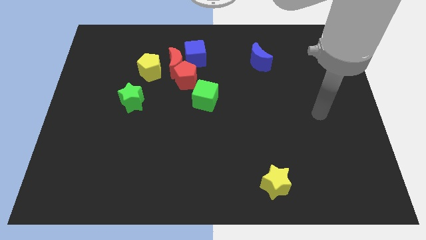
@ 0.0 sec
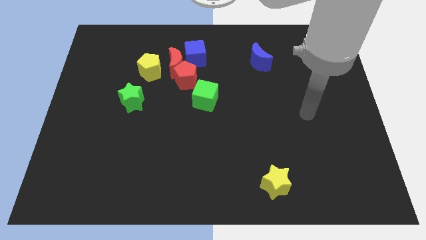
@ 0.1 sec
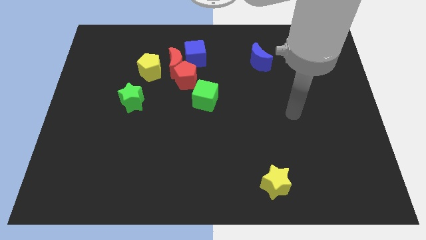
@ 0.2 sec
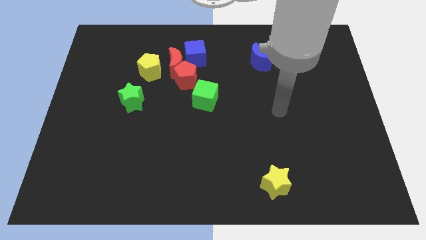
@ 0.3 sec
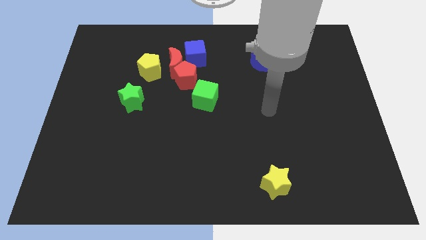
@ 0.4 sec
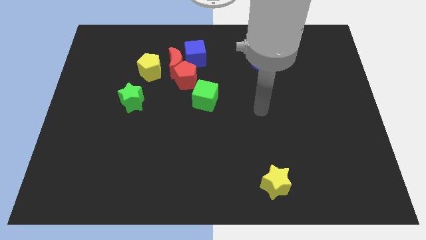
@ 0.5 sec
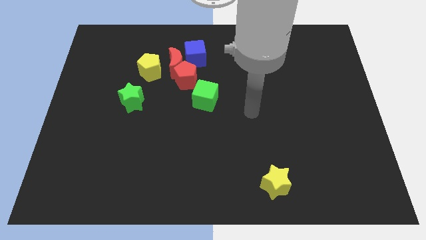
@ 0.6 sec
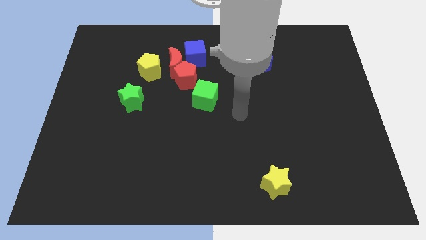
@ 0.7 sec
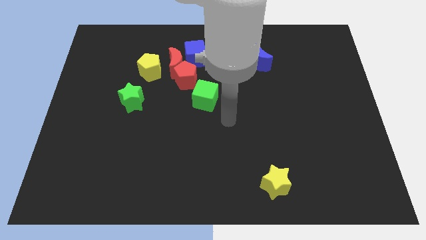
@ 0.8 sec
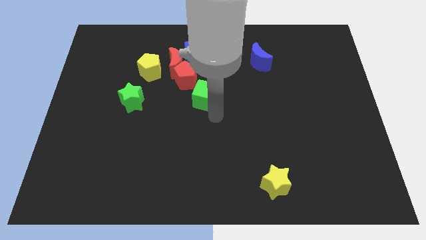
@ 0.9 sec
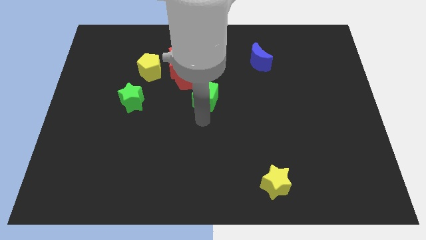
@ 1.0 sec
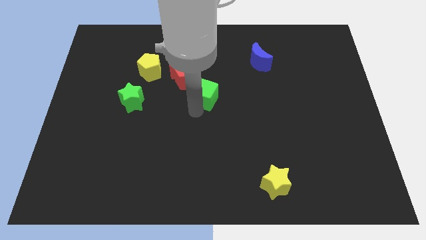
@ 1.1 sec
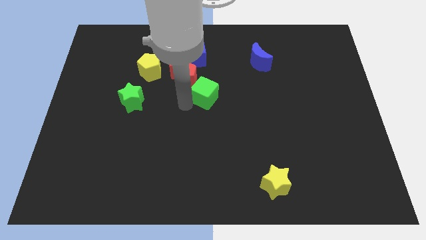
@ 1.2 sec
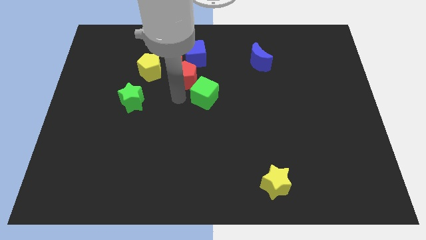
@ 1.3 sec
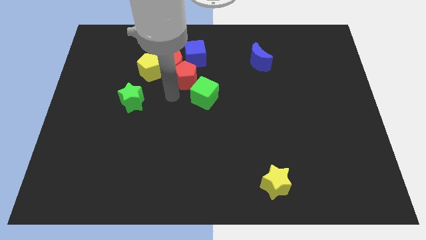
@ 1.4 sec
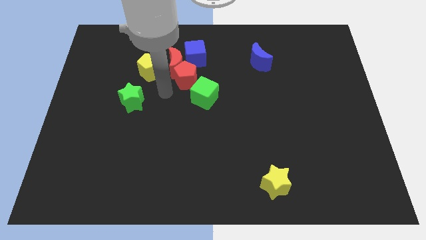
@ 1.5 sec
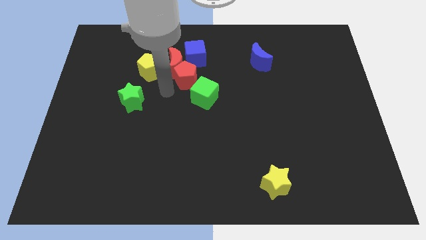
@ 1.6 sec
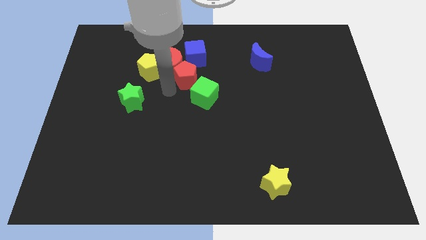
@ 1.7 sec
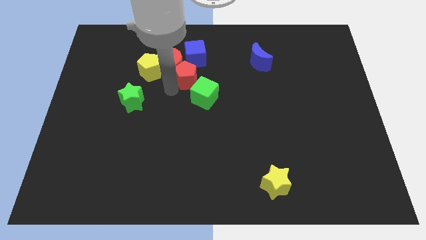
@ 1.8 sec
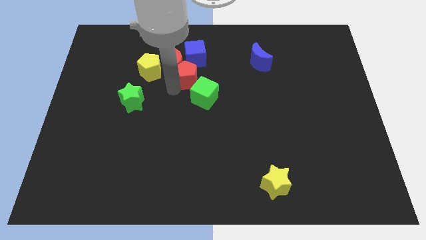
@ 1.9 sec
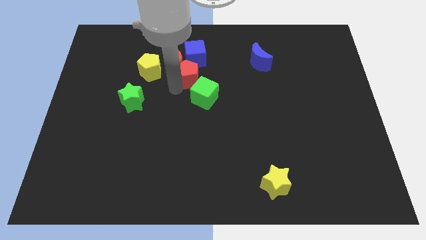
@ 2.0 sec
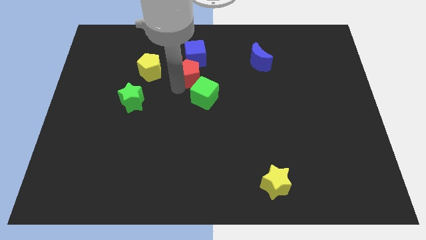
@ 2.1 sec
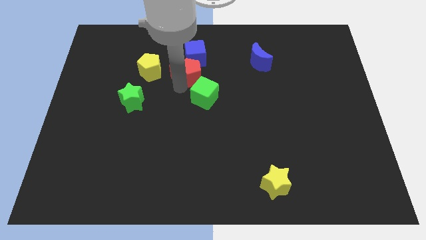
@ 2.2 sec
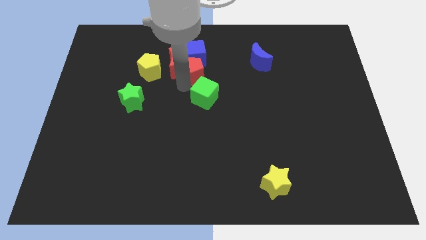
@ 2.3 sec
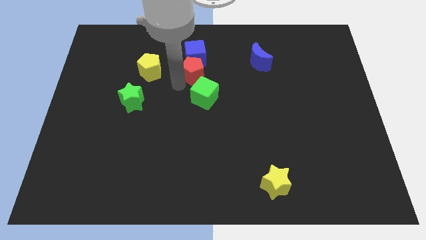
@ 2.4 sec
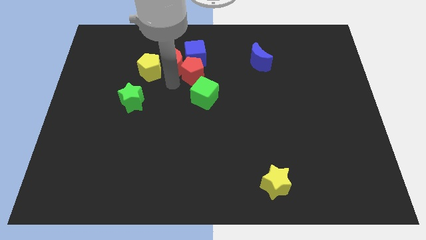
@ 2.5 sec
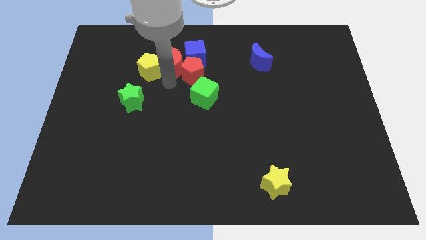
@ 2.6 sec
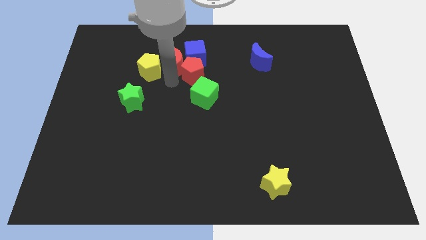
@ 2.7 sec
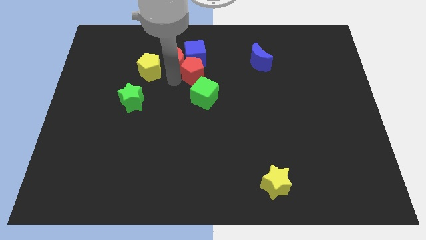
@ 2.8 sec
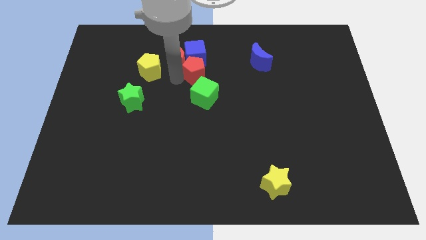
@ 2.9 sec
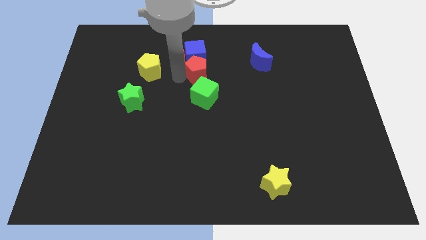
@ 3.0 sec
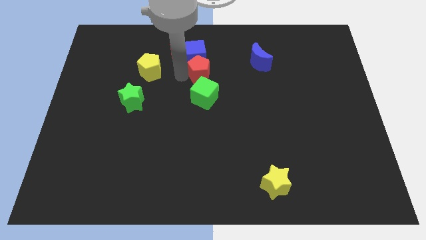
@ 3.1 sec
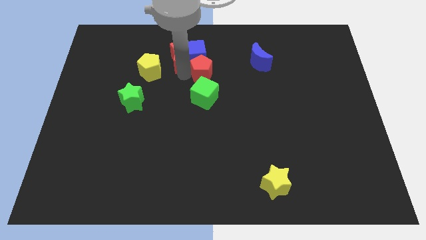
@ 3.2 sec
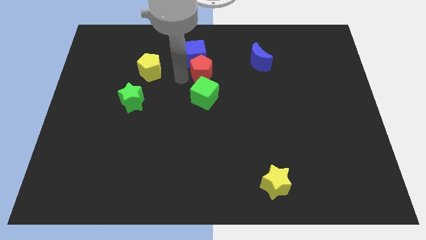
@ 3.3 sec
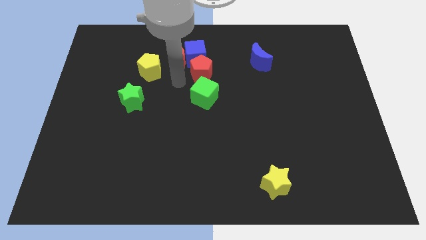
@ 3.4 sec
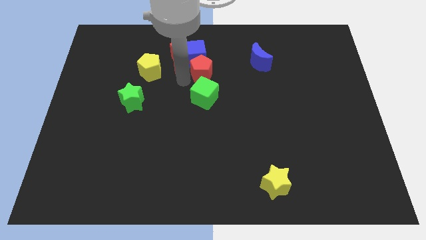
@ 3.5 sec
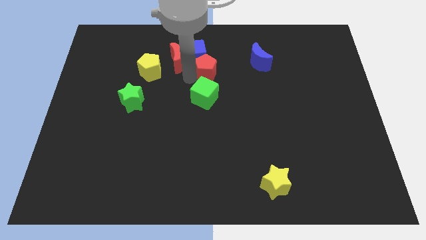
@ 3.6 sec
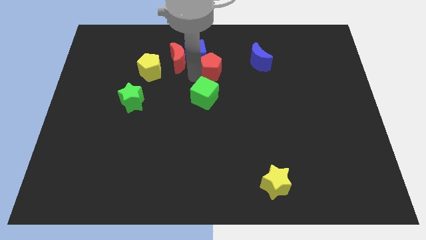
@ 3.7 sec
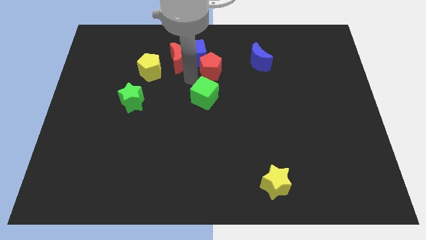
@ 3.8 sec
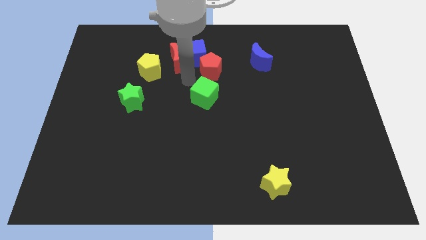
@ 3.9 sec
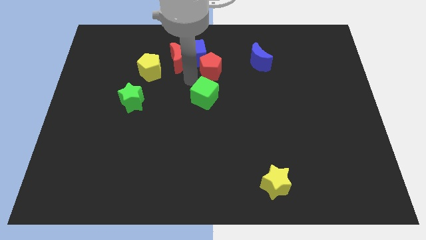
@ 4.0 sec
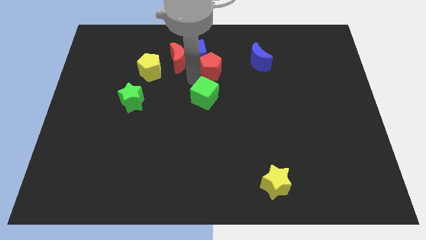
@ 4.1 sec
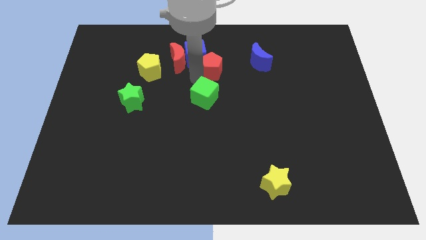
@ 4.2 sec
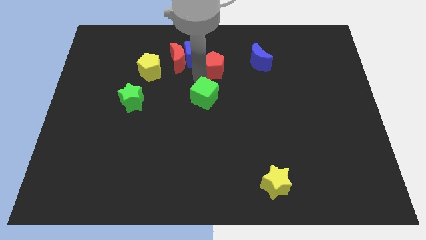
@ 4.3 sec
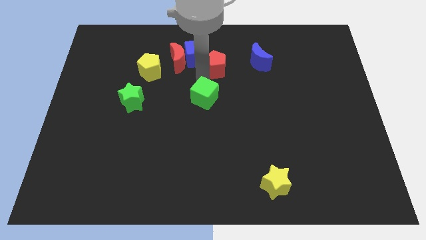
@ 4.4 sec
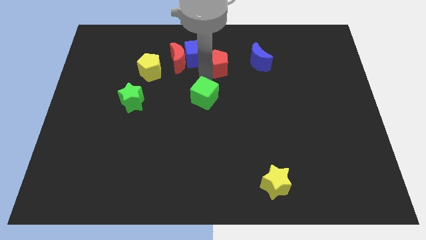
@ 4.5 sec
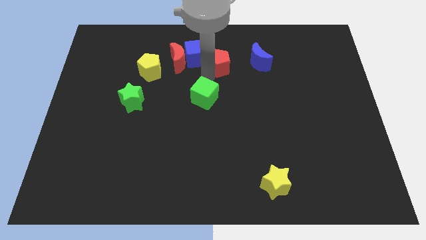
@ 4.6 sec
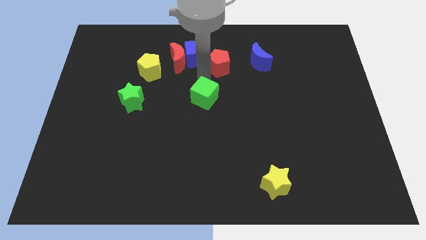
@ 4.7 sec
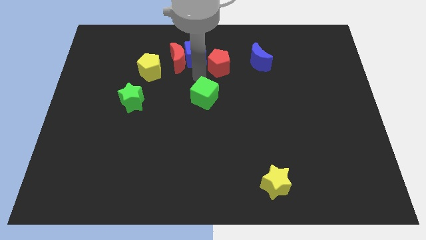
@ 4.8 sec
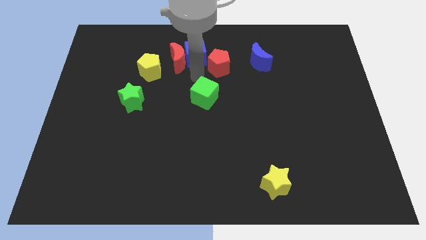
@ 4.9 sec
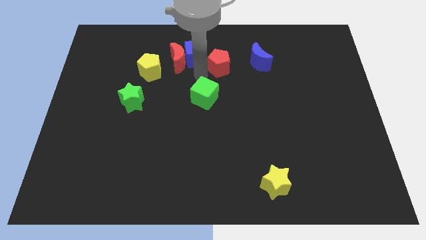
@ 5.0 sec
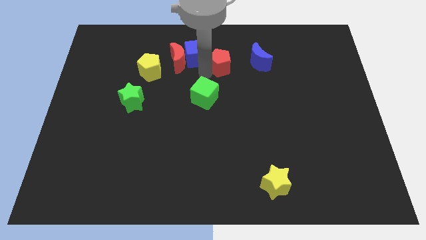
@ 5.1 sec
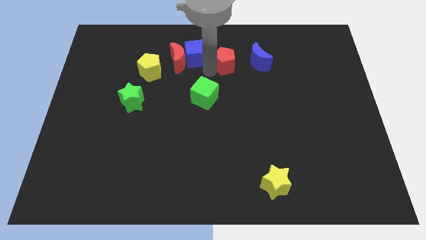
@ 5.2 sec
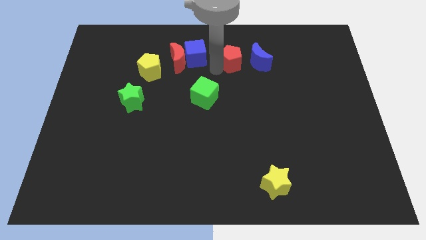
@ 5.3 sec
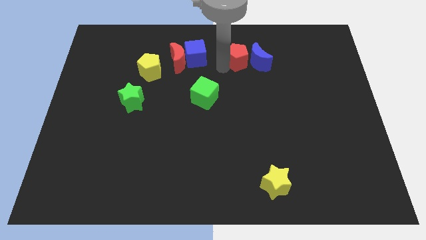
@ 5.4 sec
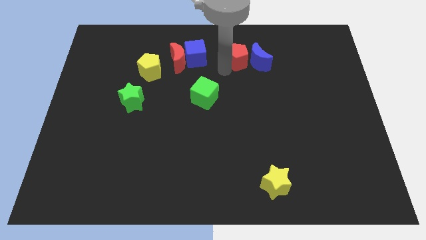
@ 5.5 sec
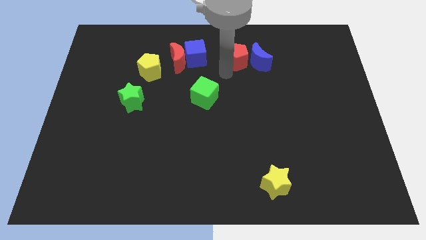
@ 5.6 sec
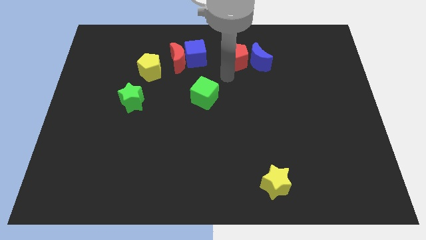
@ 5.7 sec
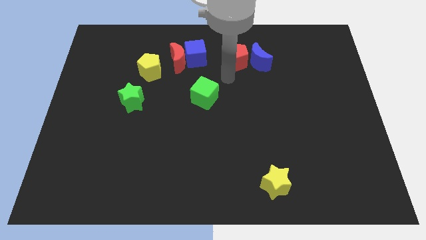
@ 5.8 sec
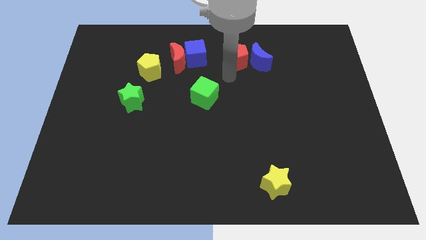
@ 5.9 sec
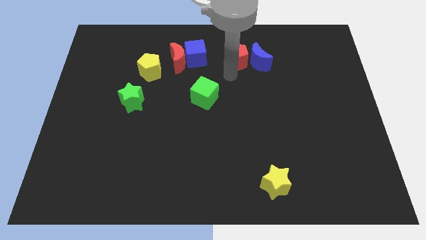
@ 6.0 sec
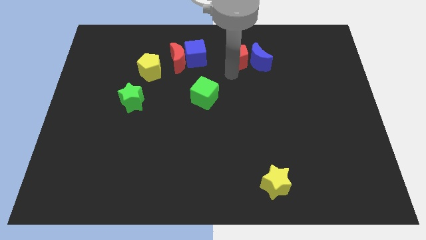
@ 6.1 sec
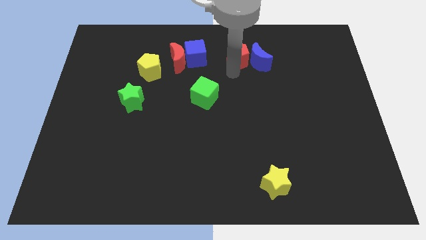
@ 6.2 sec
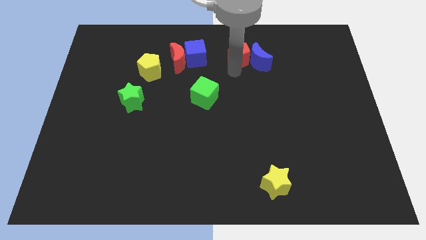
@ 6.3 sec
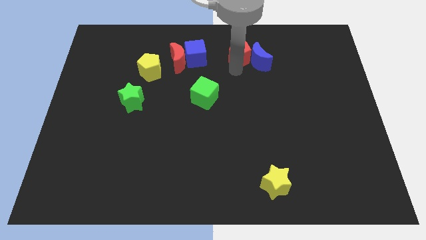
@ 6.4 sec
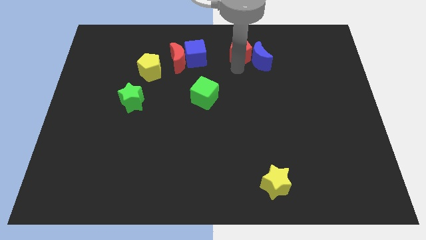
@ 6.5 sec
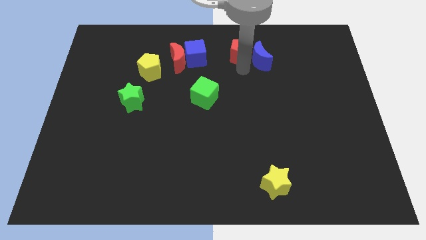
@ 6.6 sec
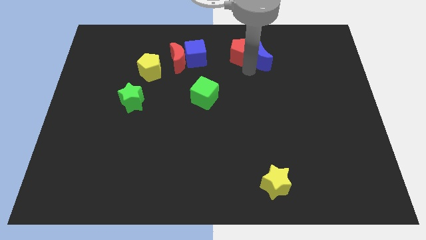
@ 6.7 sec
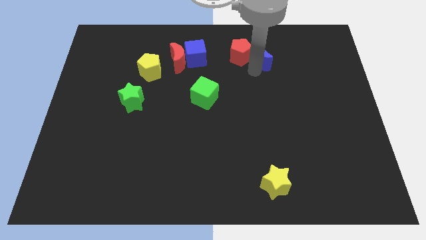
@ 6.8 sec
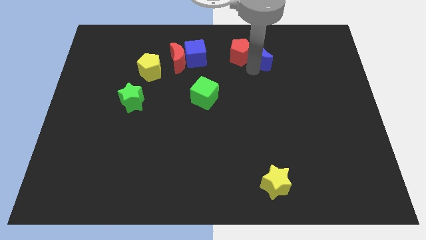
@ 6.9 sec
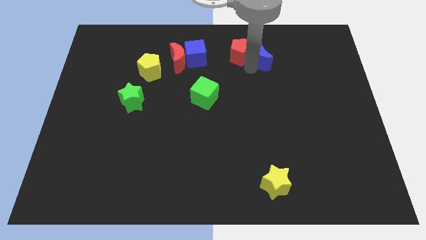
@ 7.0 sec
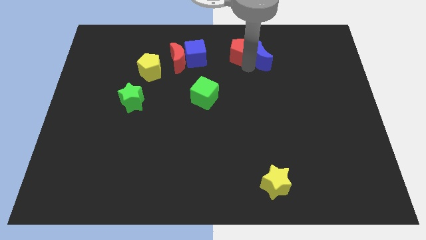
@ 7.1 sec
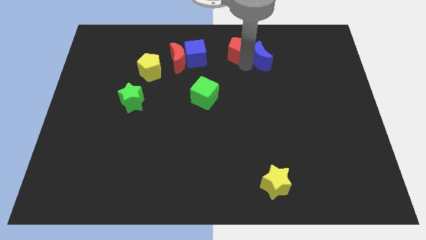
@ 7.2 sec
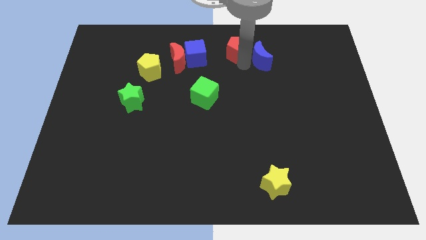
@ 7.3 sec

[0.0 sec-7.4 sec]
push the red pentagon to the top
